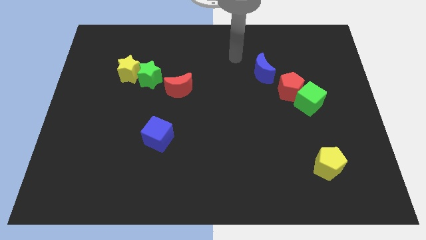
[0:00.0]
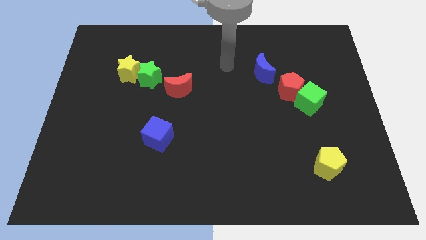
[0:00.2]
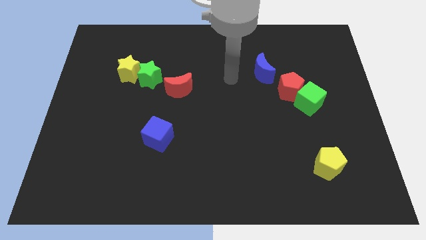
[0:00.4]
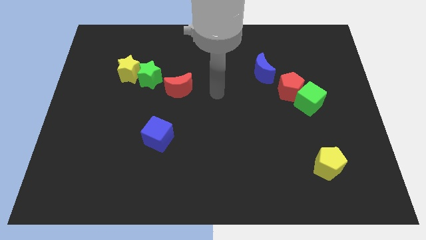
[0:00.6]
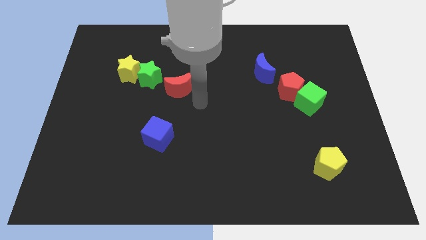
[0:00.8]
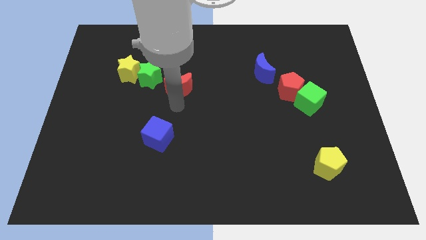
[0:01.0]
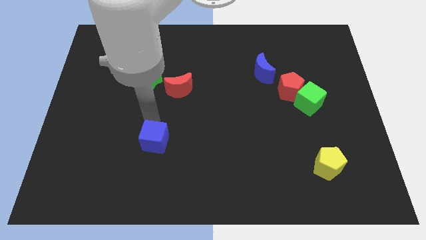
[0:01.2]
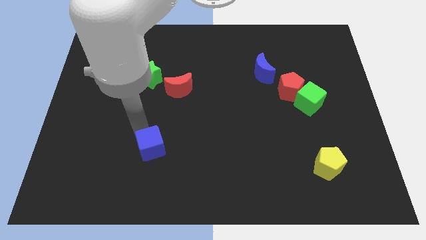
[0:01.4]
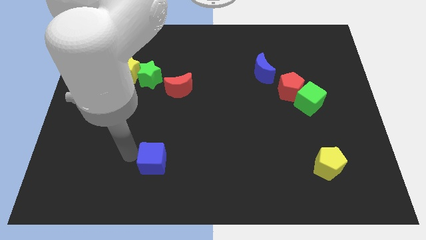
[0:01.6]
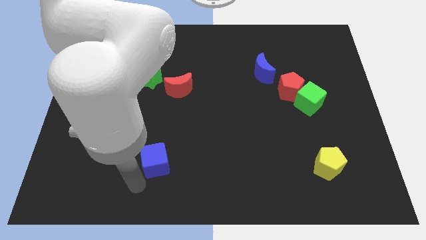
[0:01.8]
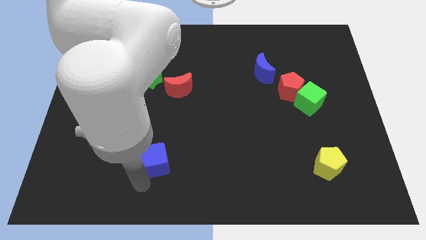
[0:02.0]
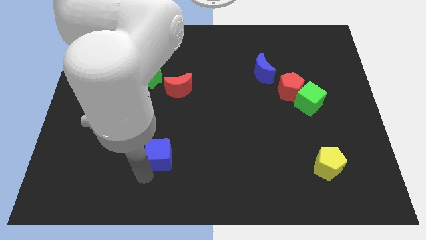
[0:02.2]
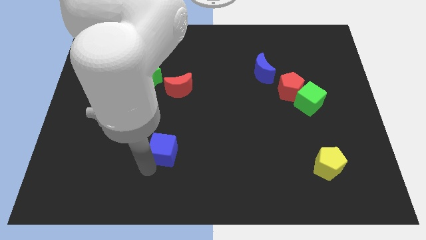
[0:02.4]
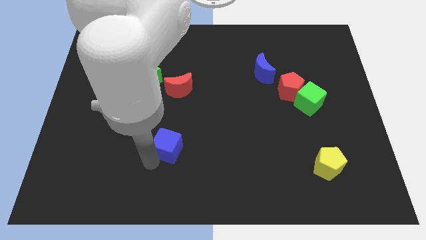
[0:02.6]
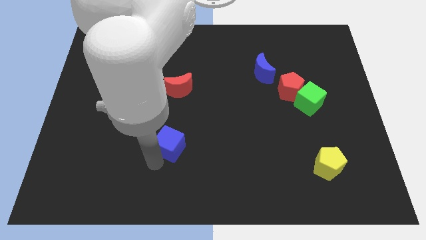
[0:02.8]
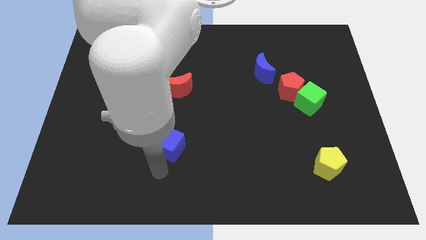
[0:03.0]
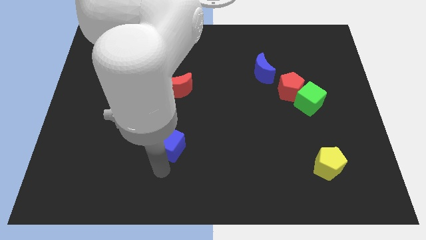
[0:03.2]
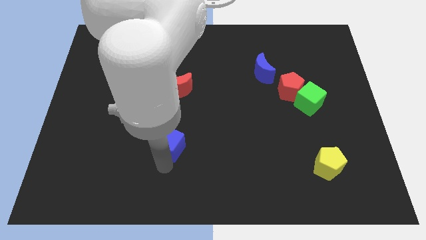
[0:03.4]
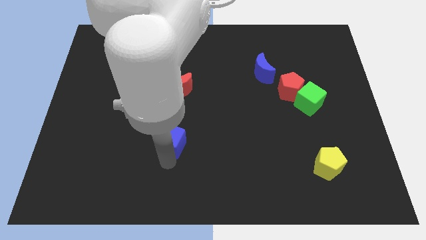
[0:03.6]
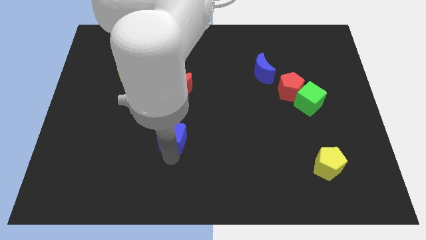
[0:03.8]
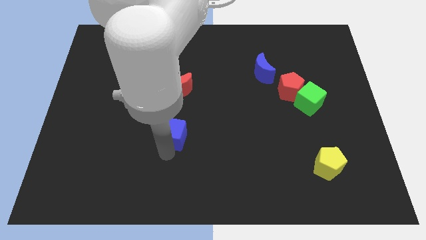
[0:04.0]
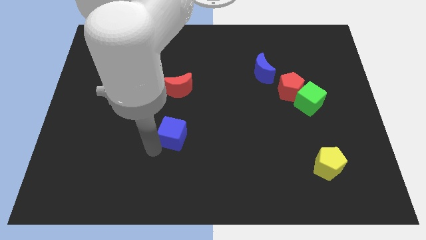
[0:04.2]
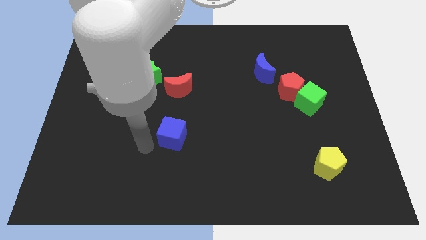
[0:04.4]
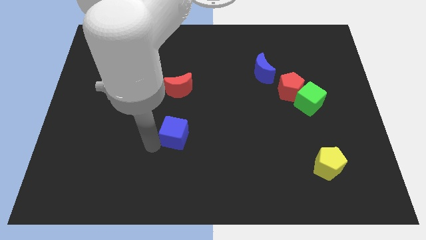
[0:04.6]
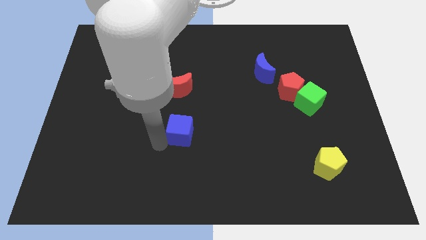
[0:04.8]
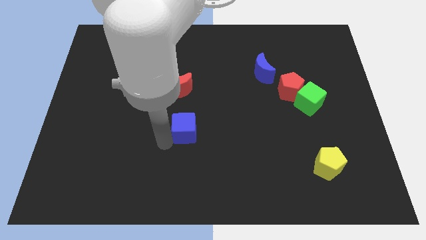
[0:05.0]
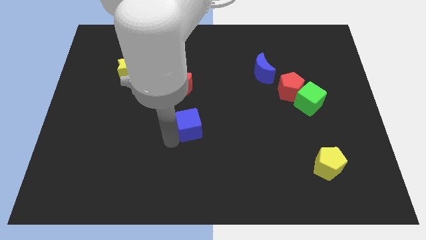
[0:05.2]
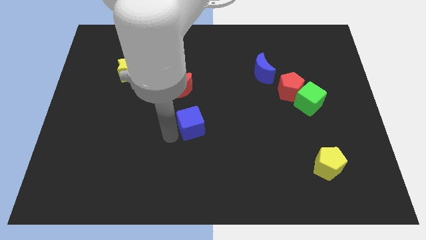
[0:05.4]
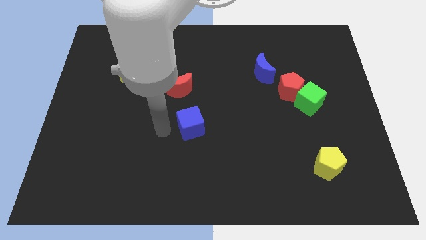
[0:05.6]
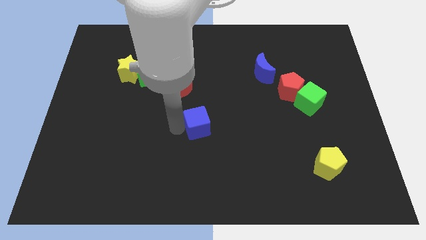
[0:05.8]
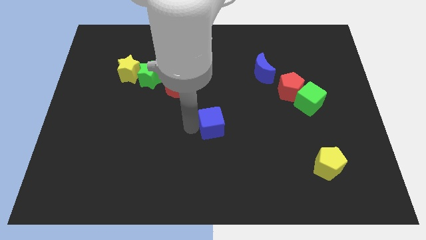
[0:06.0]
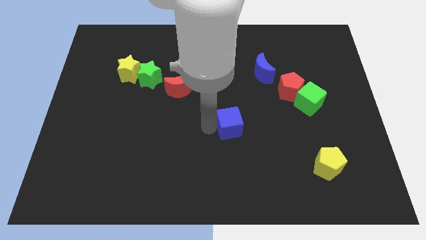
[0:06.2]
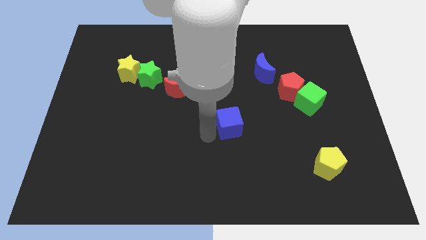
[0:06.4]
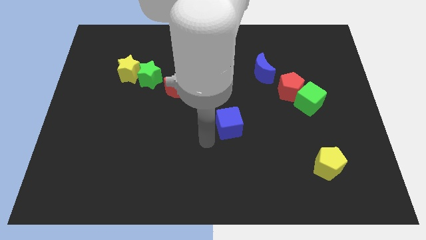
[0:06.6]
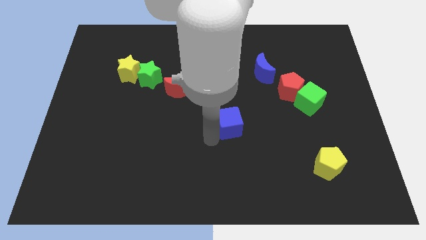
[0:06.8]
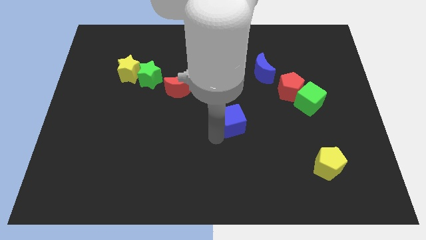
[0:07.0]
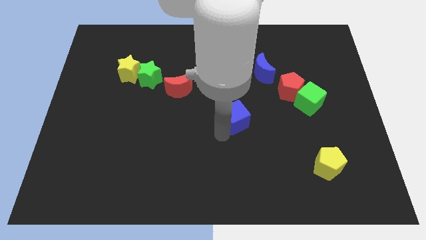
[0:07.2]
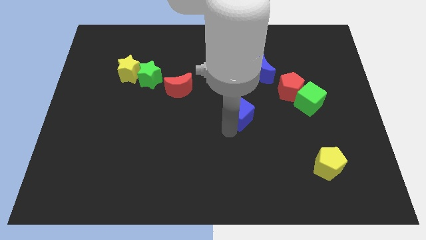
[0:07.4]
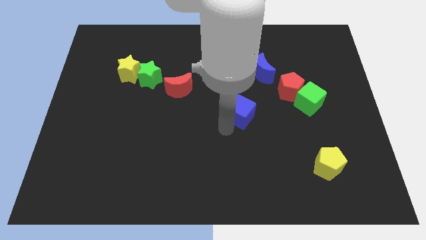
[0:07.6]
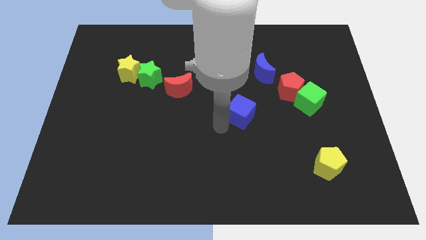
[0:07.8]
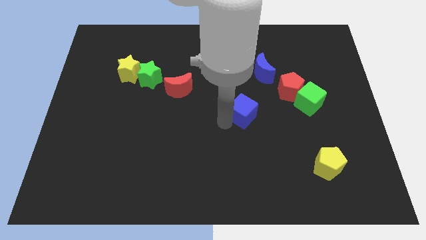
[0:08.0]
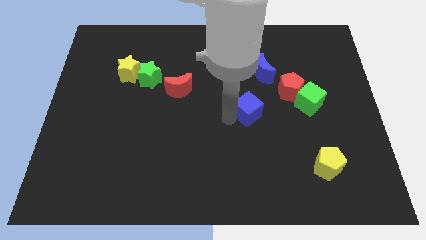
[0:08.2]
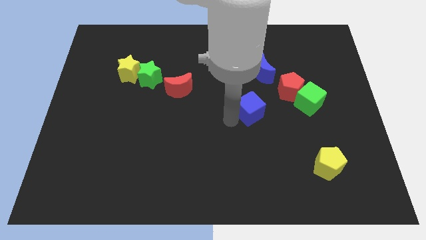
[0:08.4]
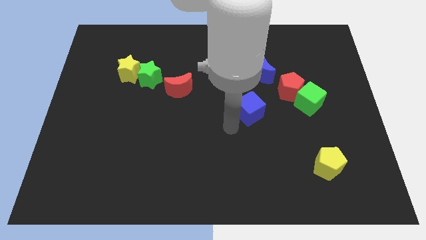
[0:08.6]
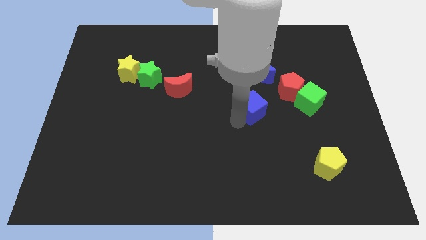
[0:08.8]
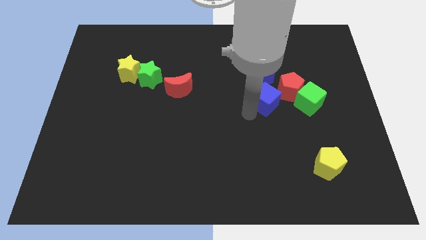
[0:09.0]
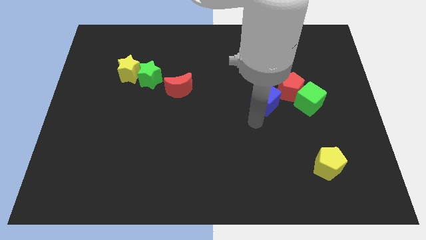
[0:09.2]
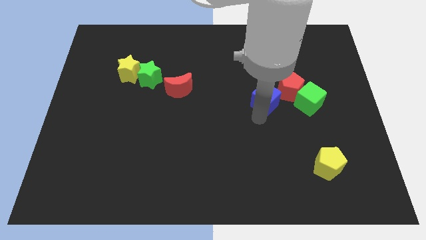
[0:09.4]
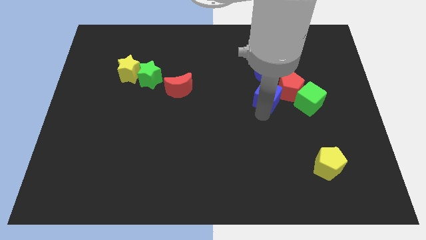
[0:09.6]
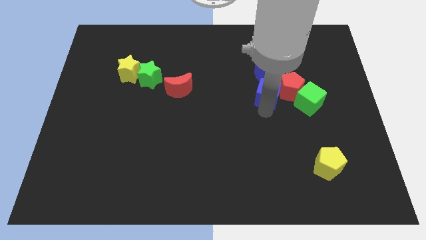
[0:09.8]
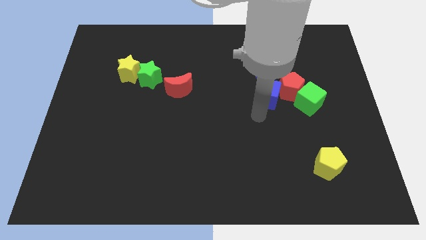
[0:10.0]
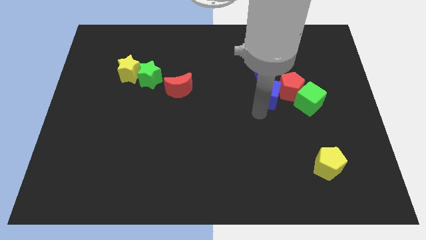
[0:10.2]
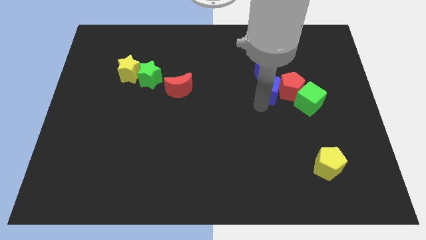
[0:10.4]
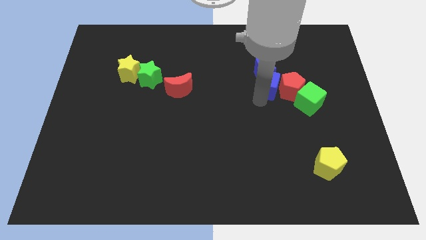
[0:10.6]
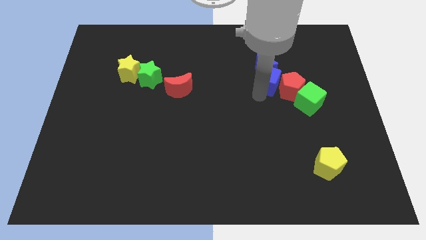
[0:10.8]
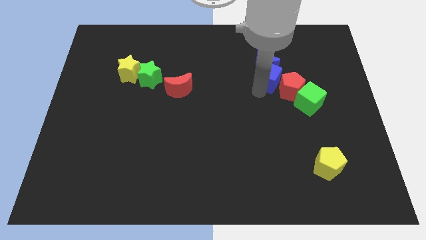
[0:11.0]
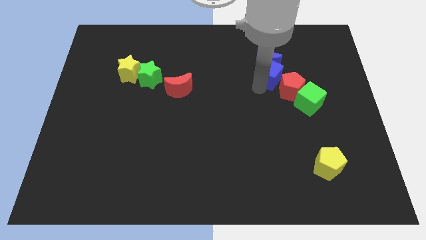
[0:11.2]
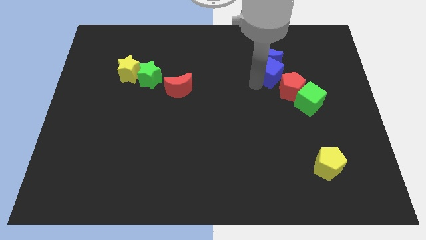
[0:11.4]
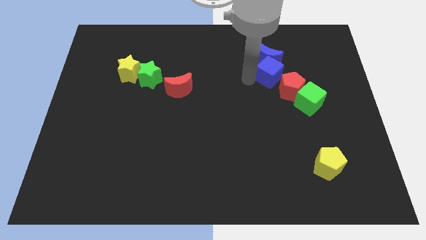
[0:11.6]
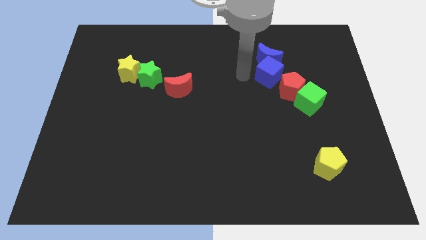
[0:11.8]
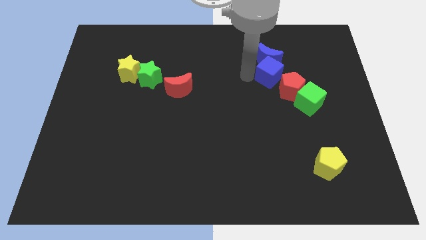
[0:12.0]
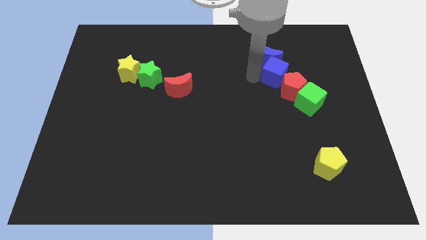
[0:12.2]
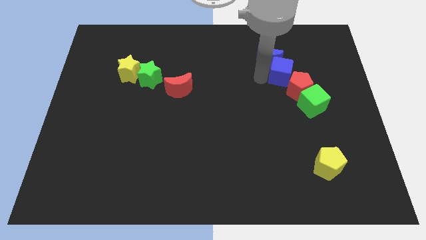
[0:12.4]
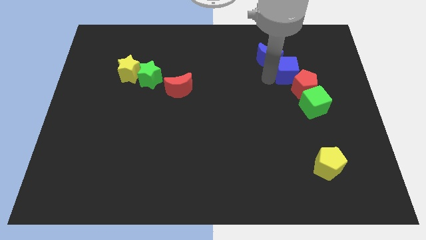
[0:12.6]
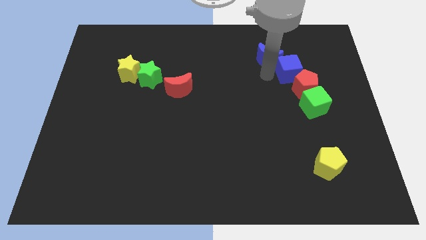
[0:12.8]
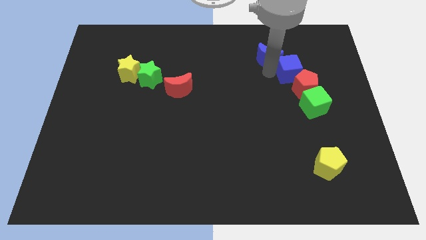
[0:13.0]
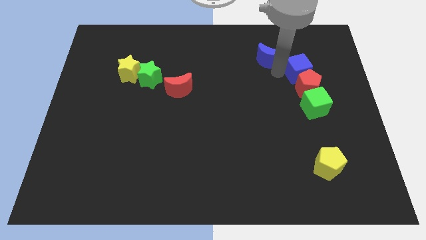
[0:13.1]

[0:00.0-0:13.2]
slide the blue cube to the top right side of the red pentagon

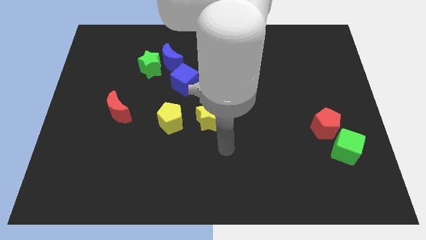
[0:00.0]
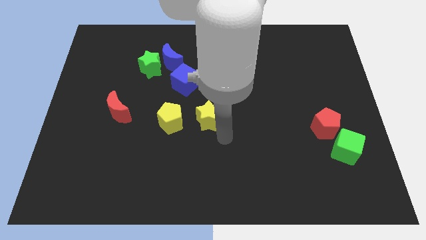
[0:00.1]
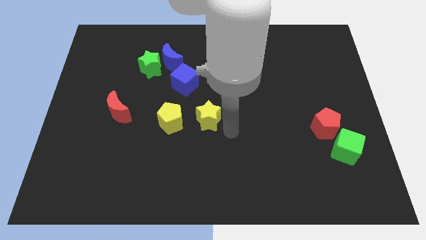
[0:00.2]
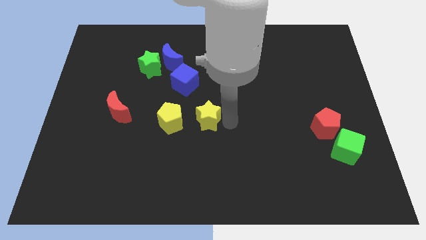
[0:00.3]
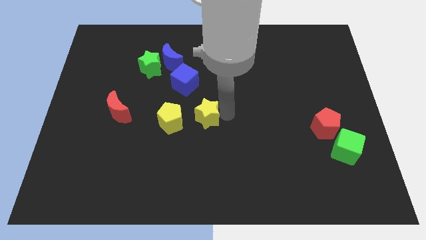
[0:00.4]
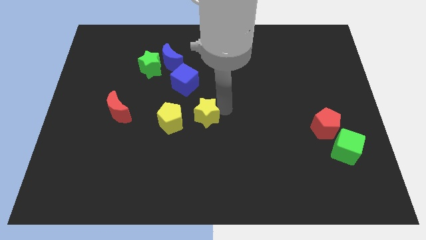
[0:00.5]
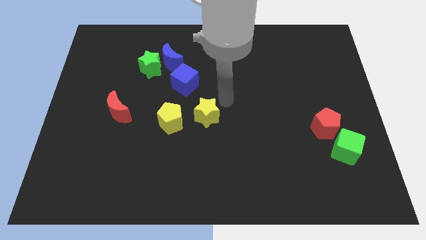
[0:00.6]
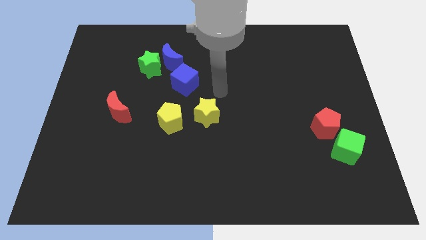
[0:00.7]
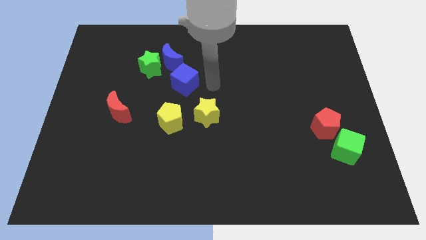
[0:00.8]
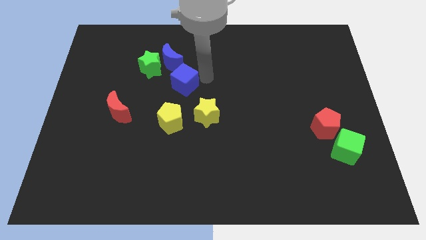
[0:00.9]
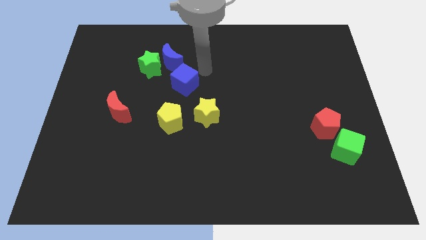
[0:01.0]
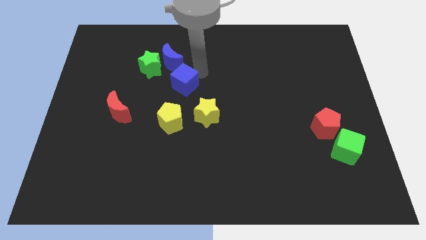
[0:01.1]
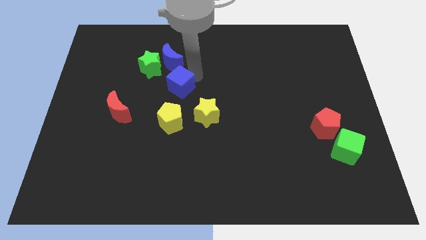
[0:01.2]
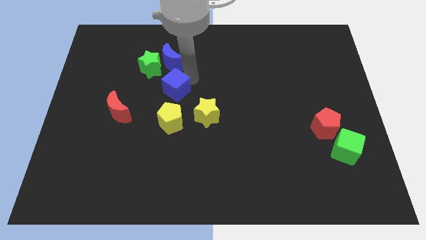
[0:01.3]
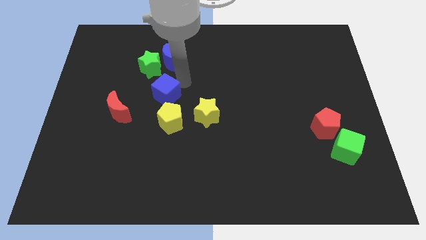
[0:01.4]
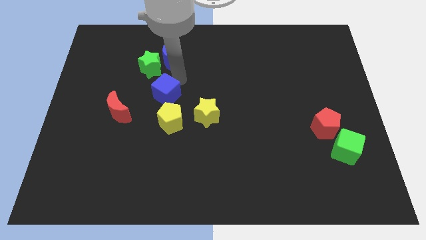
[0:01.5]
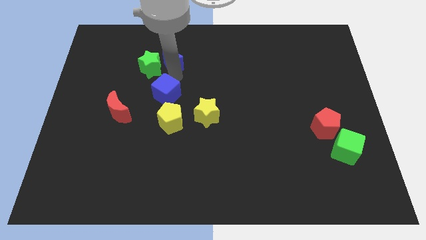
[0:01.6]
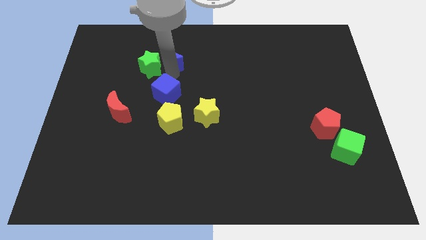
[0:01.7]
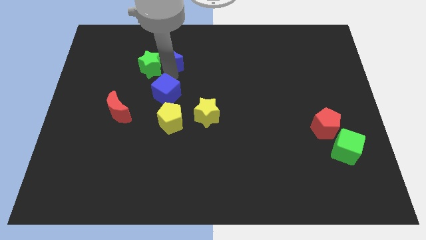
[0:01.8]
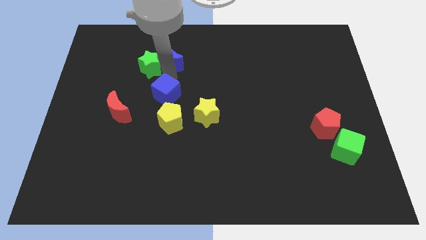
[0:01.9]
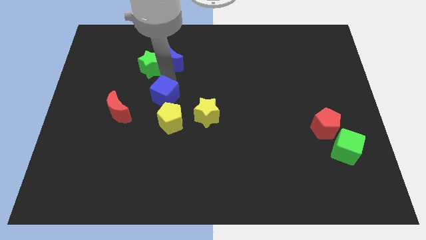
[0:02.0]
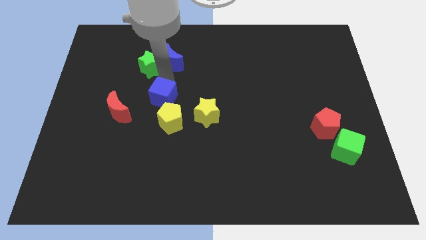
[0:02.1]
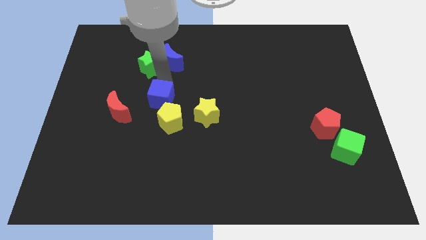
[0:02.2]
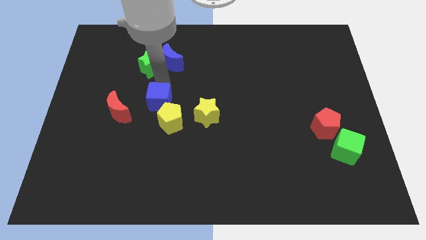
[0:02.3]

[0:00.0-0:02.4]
slide the blue cube just left of the yellow star
